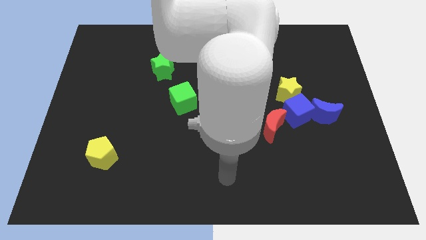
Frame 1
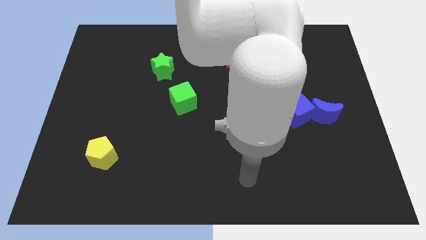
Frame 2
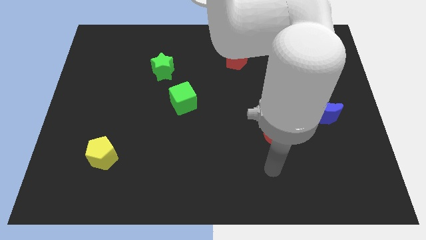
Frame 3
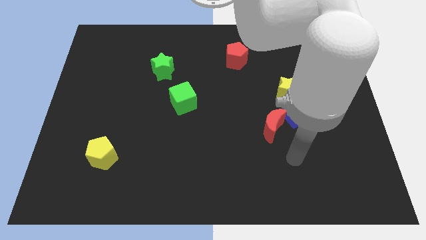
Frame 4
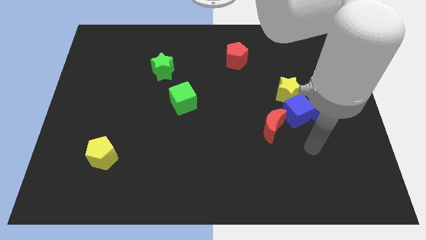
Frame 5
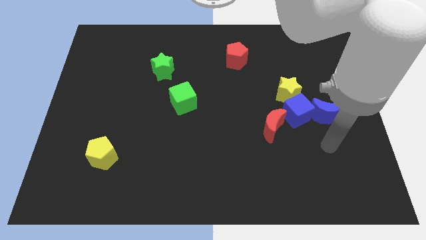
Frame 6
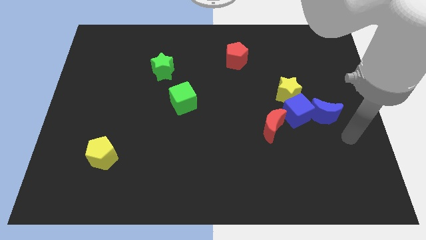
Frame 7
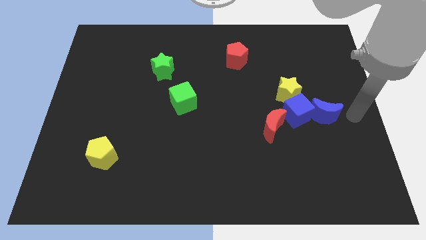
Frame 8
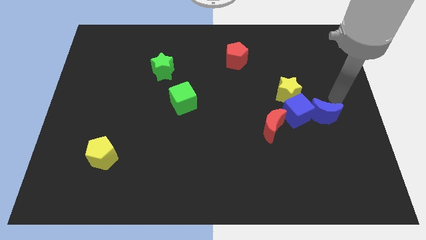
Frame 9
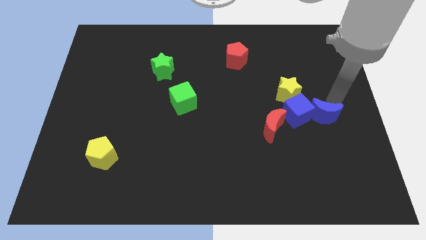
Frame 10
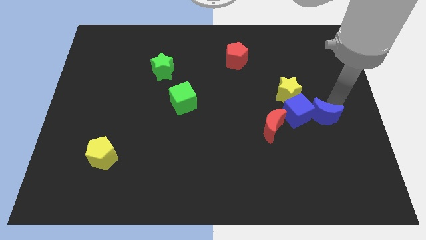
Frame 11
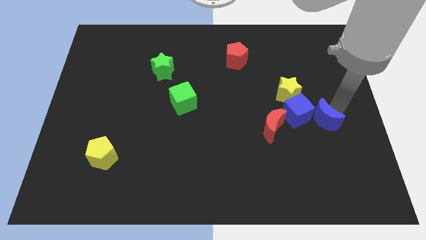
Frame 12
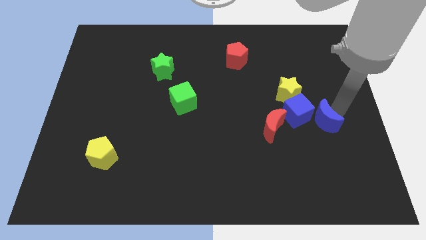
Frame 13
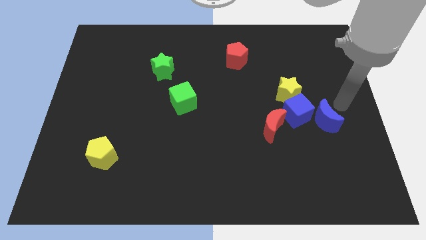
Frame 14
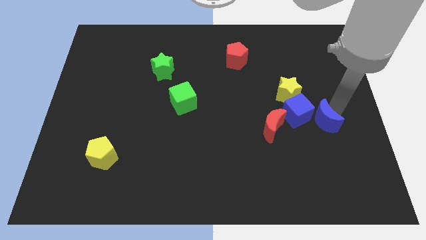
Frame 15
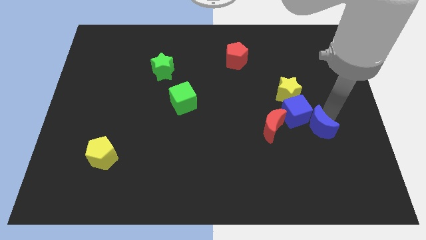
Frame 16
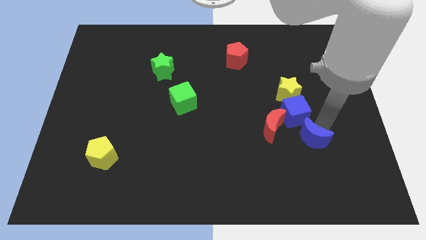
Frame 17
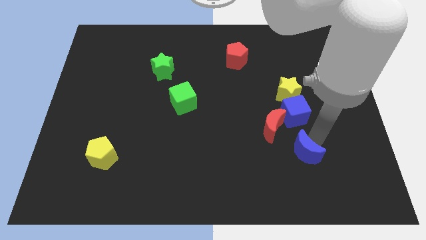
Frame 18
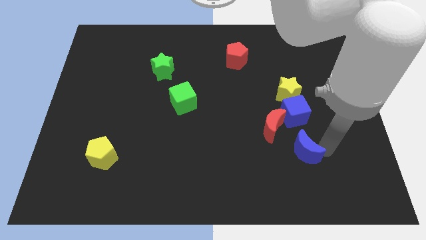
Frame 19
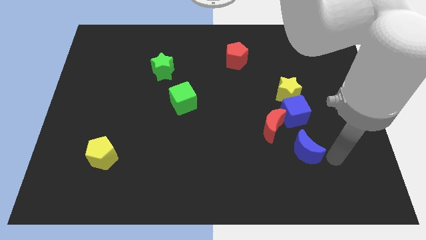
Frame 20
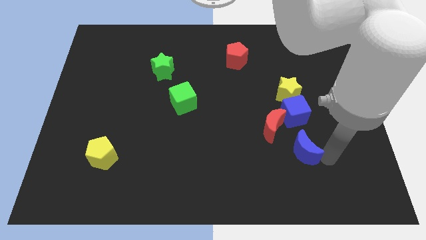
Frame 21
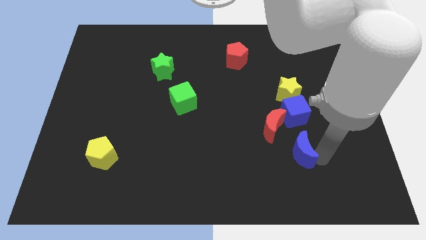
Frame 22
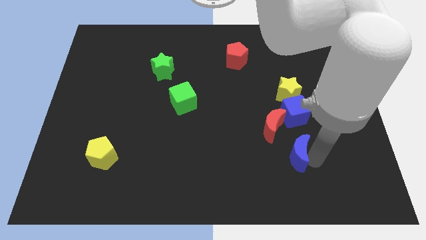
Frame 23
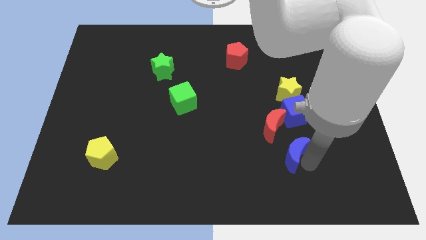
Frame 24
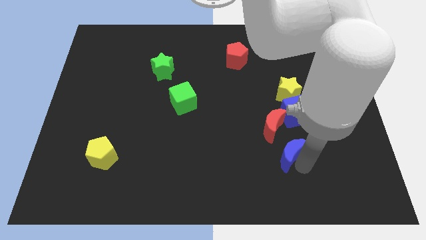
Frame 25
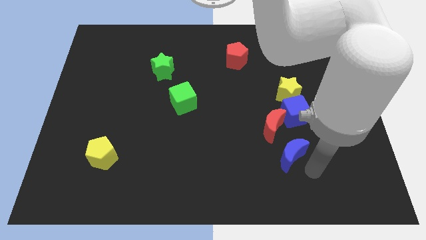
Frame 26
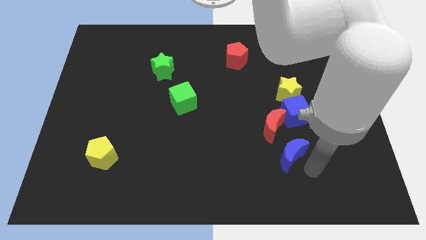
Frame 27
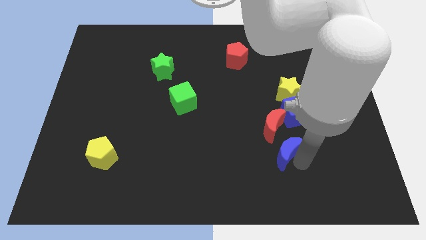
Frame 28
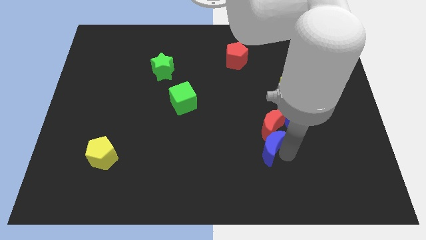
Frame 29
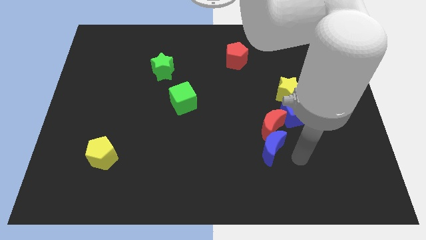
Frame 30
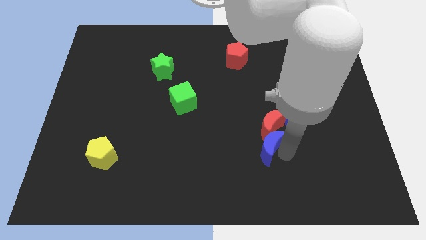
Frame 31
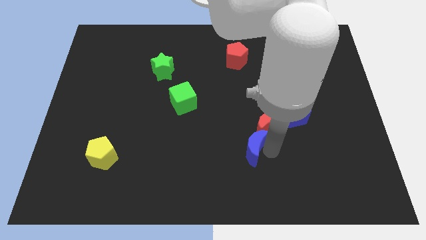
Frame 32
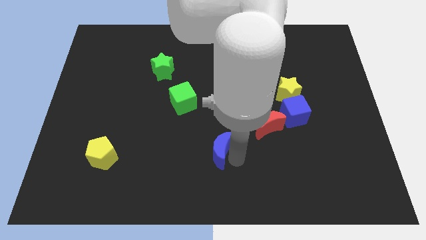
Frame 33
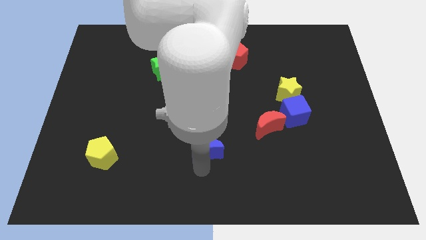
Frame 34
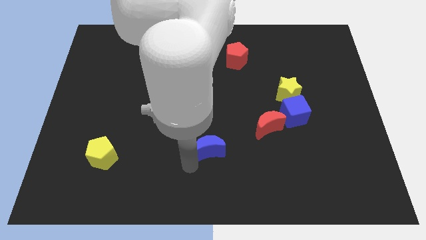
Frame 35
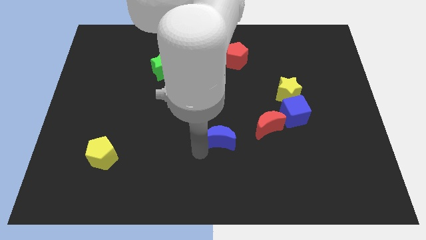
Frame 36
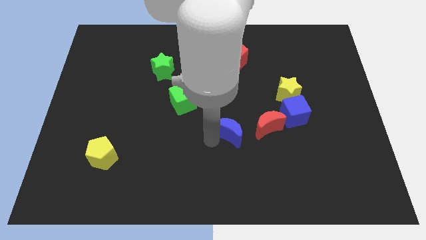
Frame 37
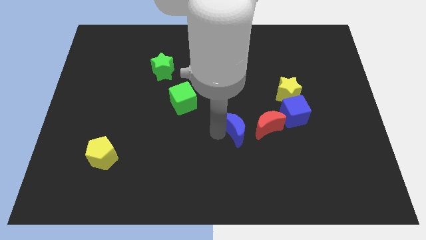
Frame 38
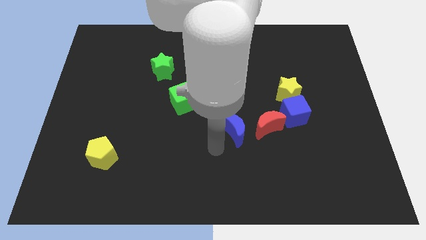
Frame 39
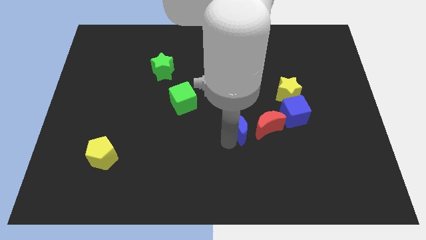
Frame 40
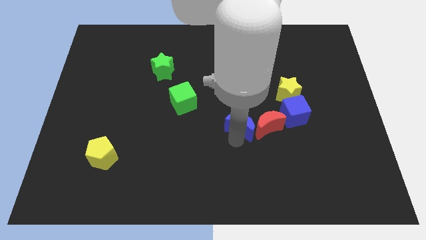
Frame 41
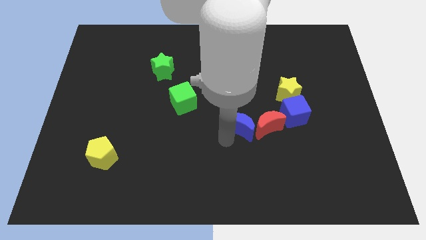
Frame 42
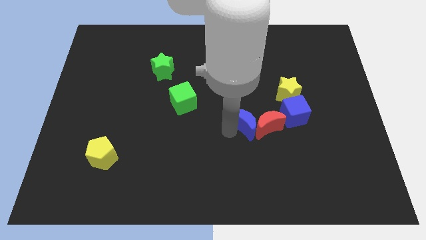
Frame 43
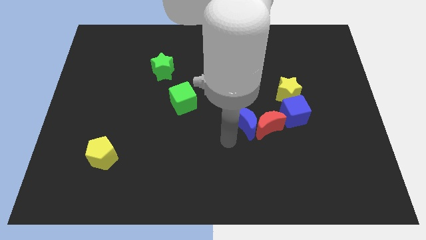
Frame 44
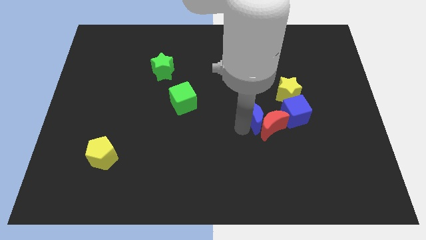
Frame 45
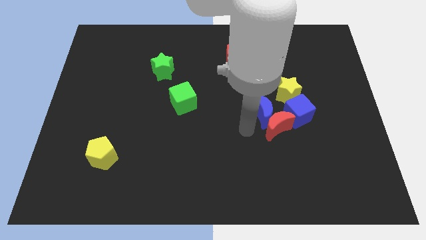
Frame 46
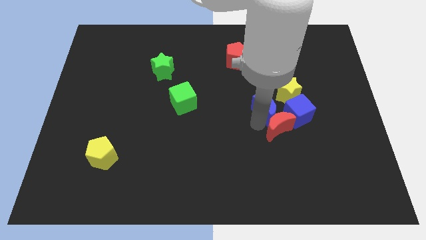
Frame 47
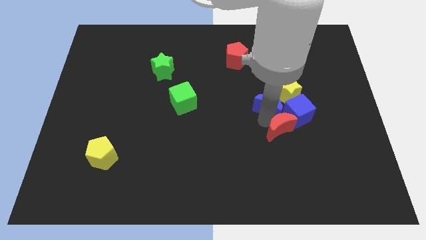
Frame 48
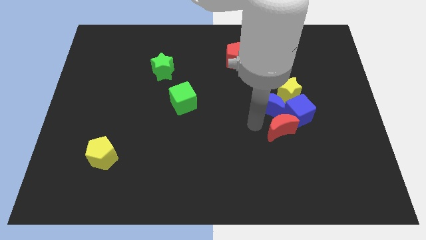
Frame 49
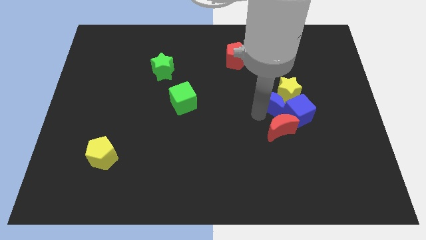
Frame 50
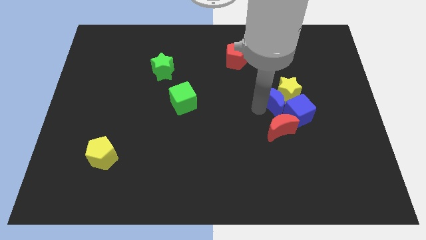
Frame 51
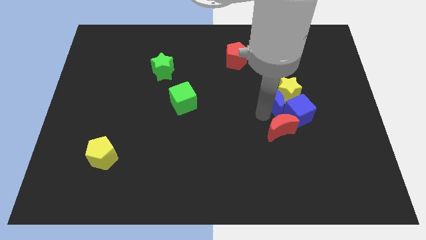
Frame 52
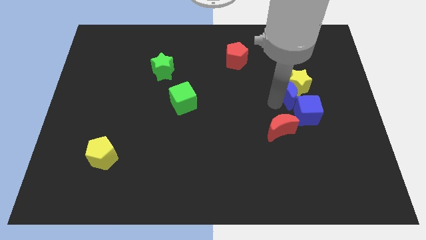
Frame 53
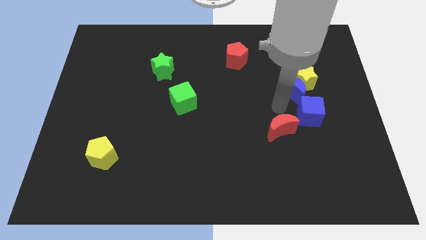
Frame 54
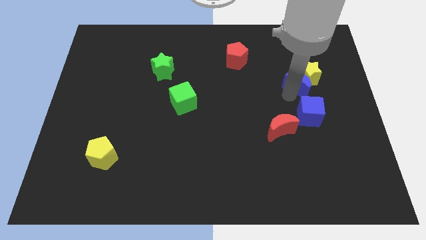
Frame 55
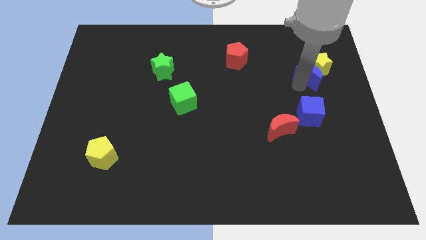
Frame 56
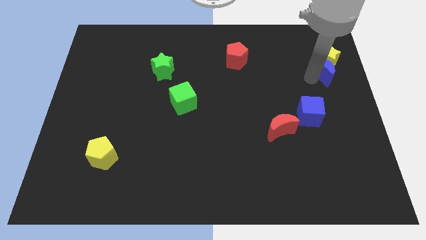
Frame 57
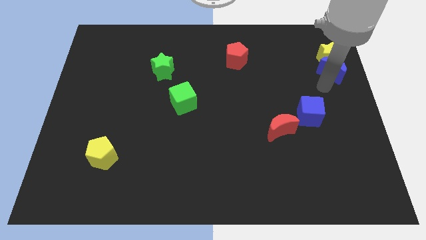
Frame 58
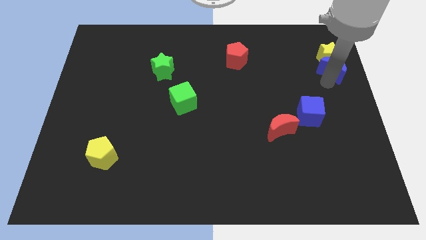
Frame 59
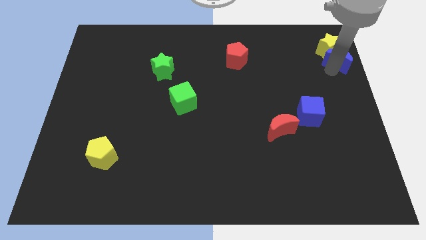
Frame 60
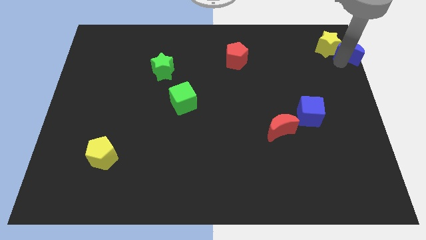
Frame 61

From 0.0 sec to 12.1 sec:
slide the blue moon to the top right
